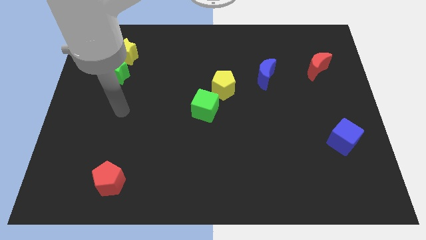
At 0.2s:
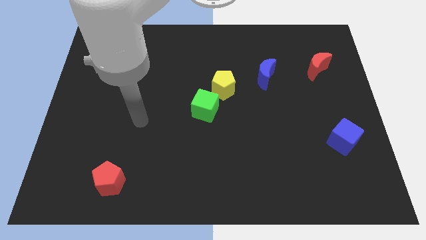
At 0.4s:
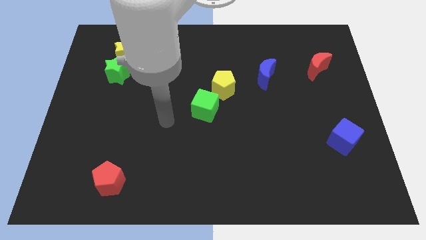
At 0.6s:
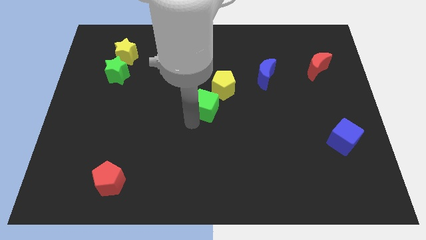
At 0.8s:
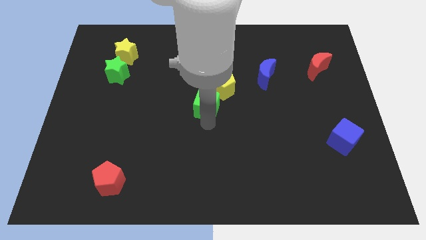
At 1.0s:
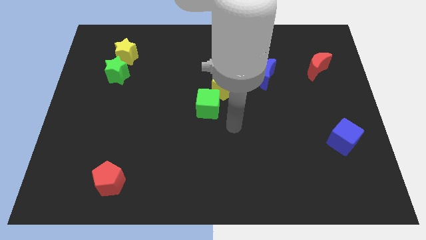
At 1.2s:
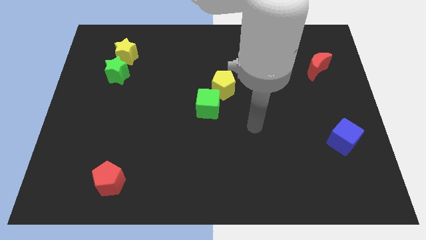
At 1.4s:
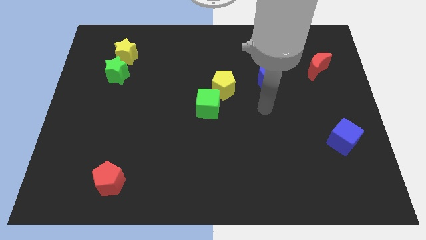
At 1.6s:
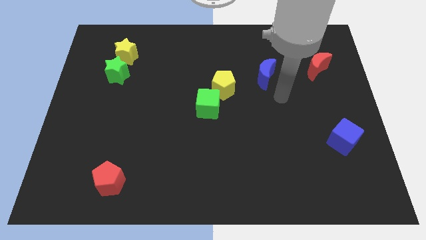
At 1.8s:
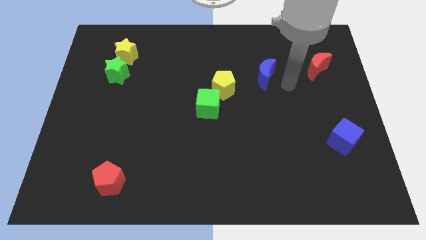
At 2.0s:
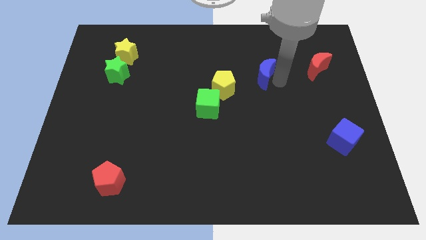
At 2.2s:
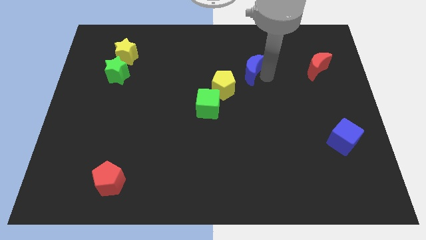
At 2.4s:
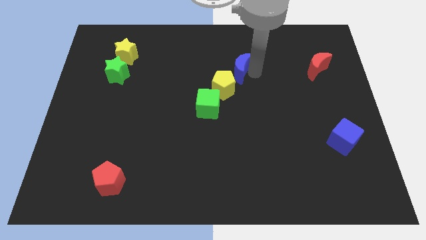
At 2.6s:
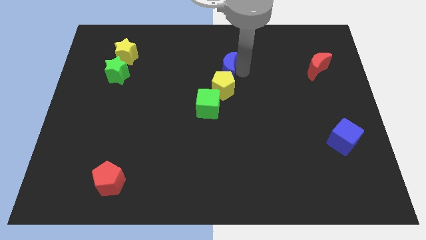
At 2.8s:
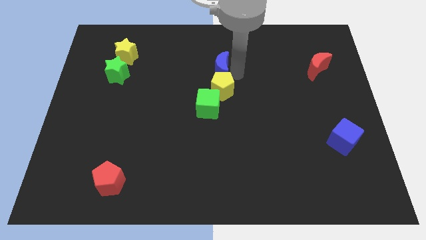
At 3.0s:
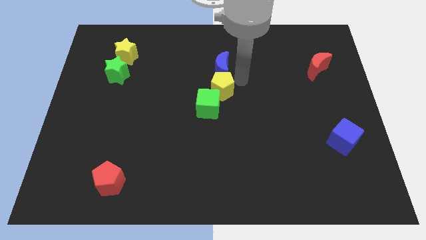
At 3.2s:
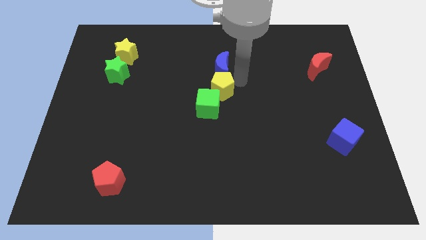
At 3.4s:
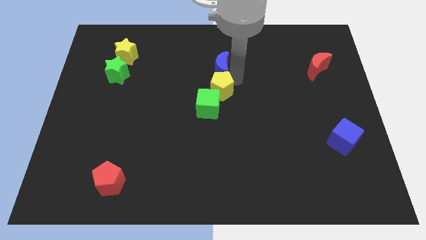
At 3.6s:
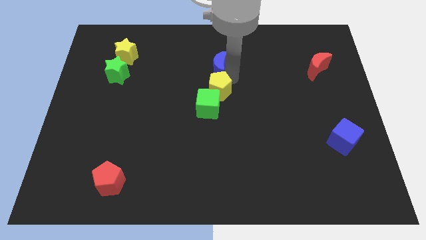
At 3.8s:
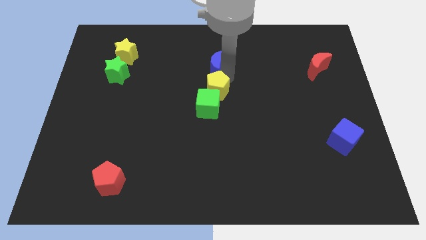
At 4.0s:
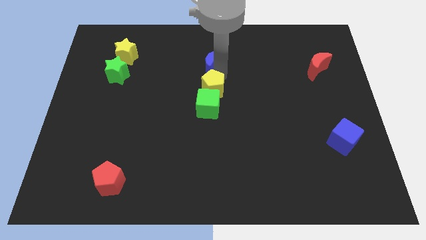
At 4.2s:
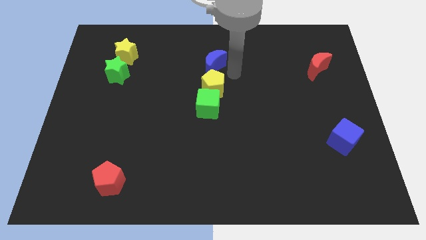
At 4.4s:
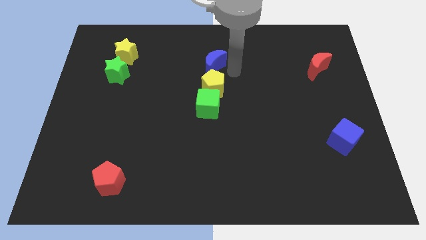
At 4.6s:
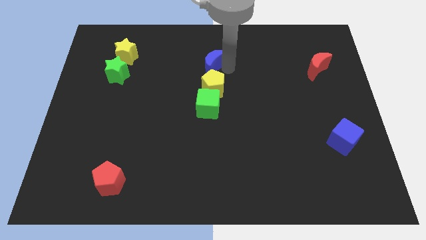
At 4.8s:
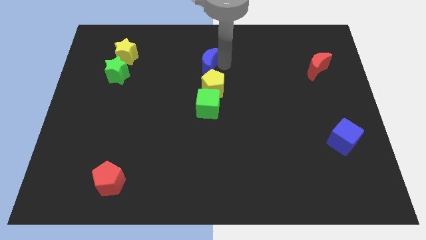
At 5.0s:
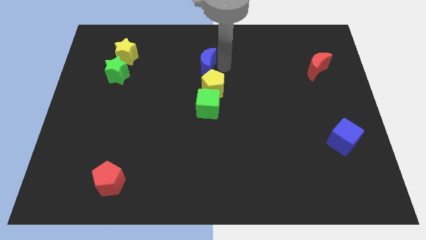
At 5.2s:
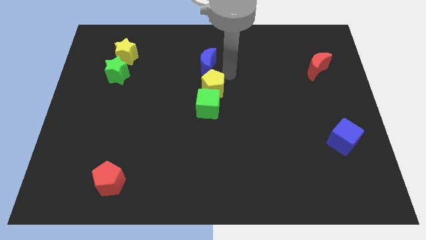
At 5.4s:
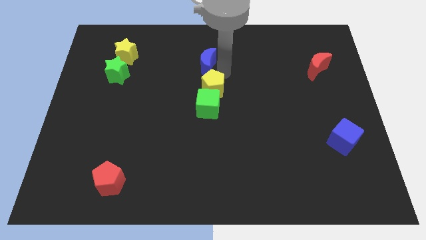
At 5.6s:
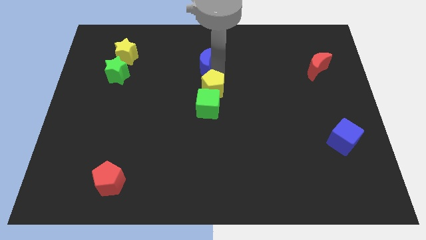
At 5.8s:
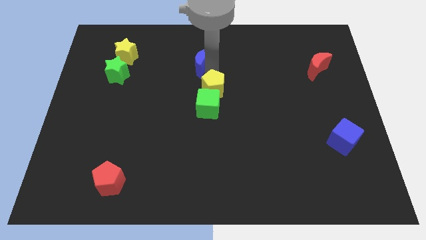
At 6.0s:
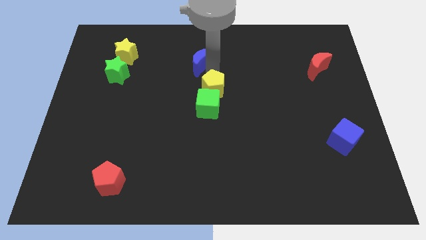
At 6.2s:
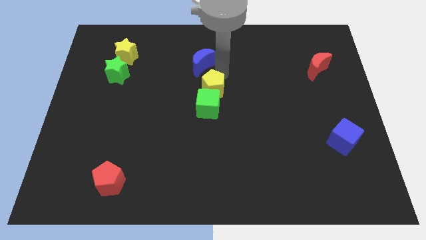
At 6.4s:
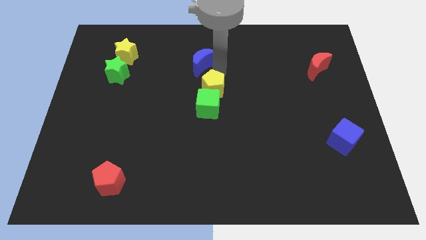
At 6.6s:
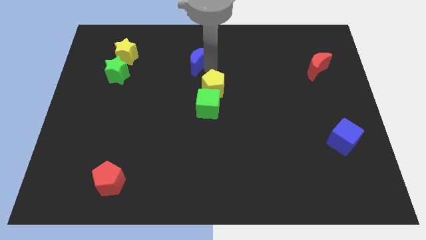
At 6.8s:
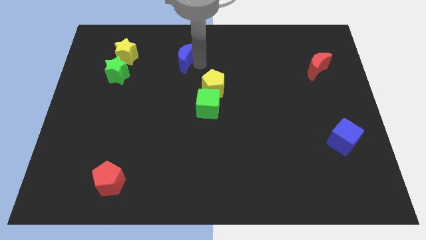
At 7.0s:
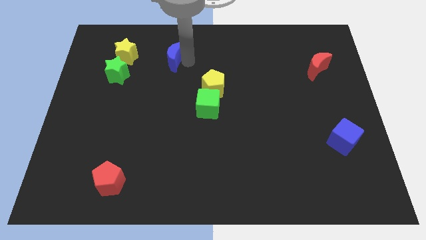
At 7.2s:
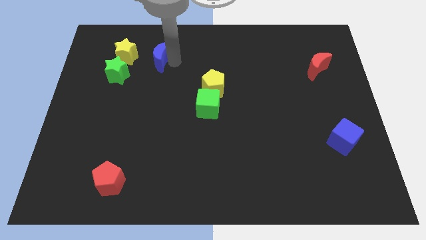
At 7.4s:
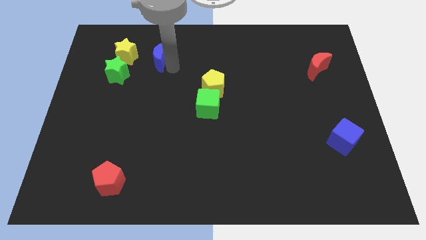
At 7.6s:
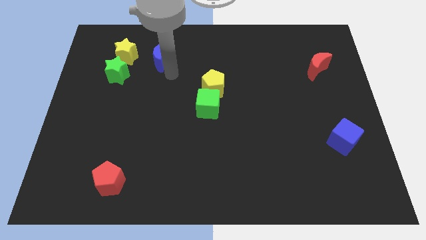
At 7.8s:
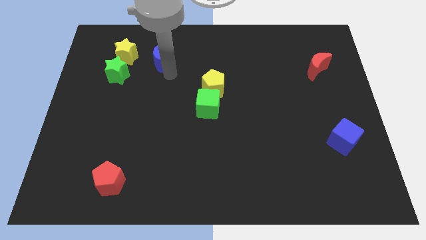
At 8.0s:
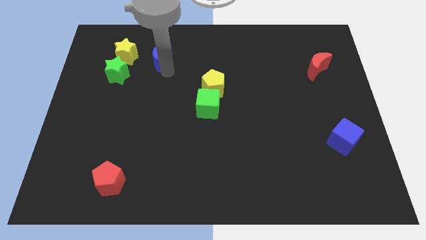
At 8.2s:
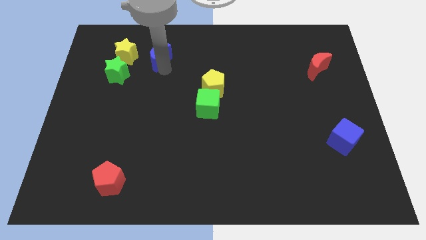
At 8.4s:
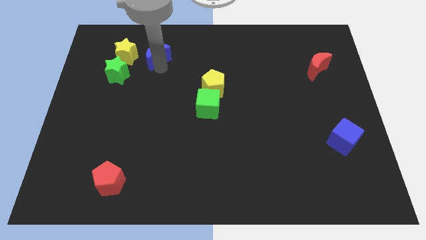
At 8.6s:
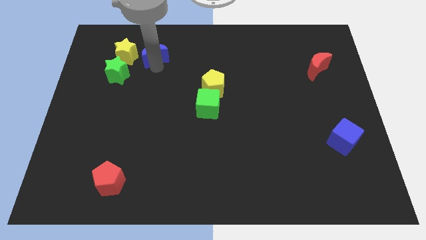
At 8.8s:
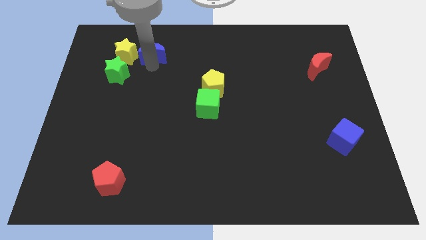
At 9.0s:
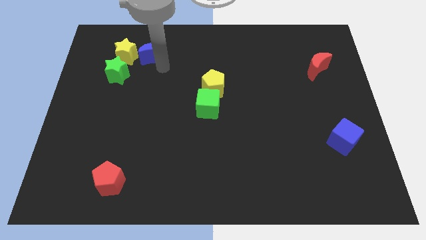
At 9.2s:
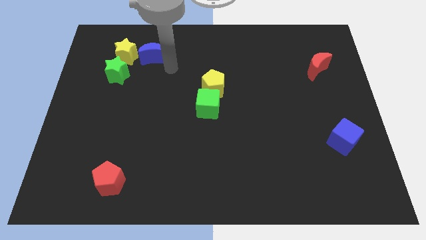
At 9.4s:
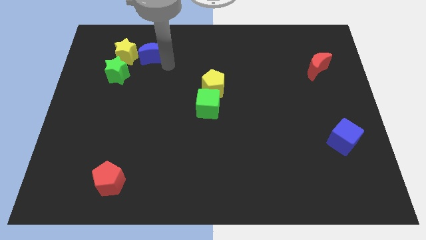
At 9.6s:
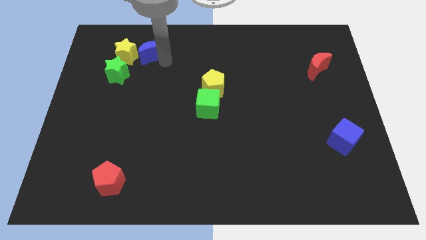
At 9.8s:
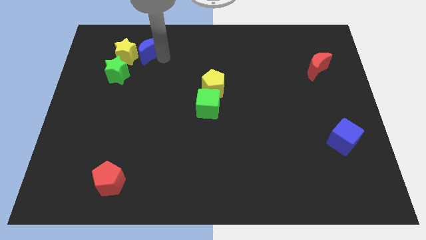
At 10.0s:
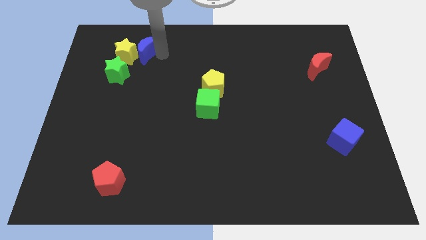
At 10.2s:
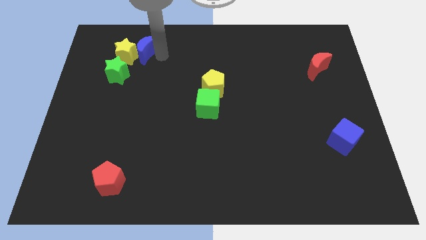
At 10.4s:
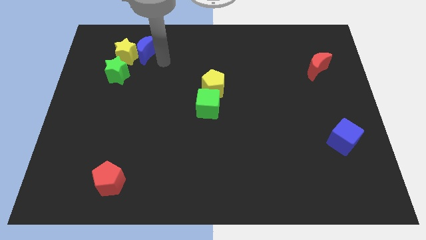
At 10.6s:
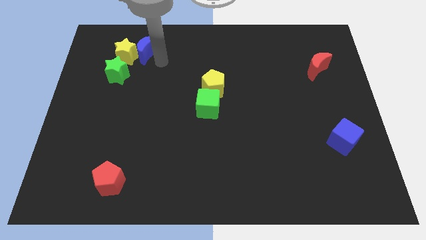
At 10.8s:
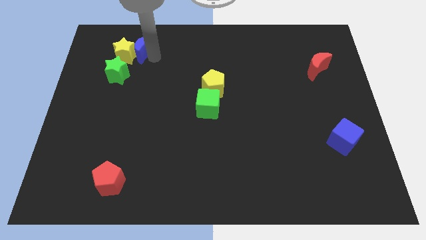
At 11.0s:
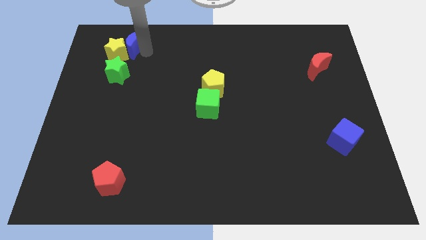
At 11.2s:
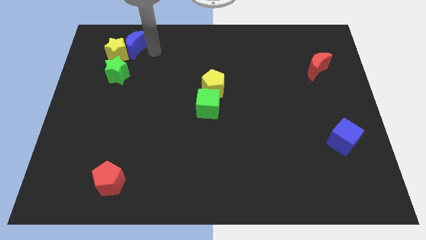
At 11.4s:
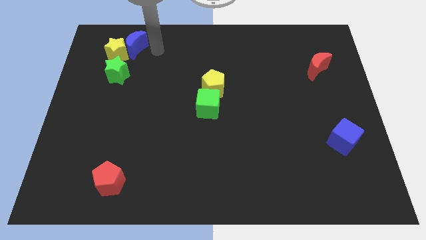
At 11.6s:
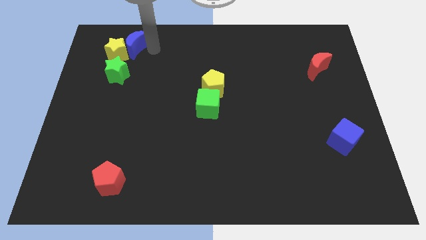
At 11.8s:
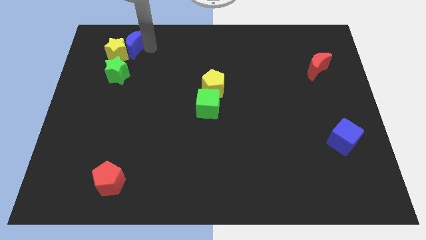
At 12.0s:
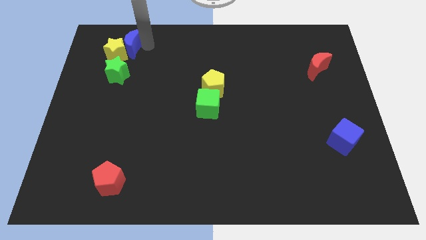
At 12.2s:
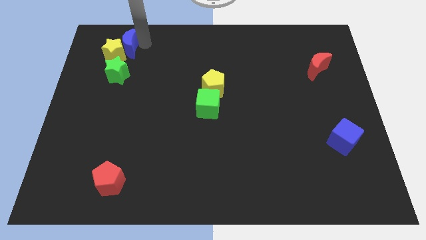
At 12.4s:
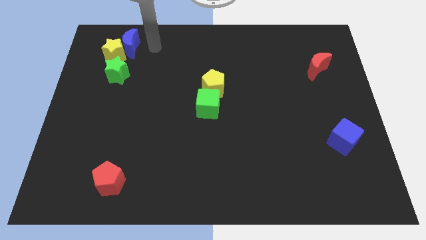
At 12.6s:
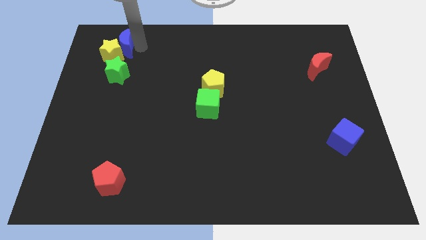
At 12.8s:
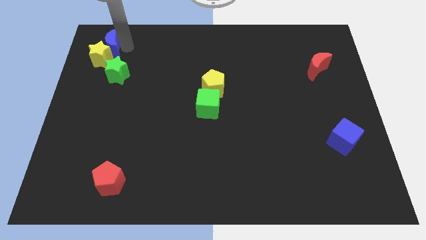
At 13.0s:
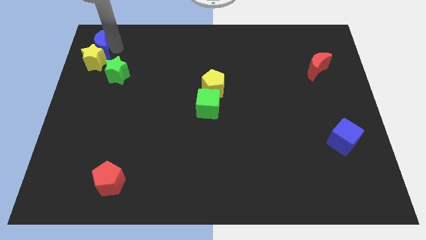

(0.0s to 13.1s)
slide the blue moon to the top left corner

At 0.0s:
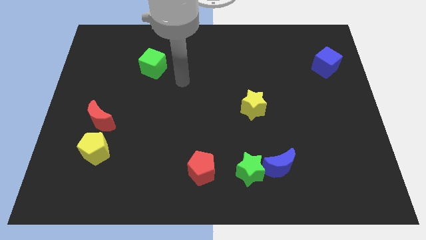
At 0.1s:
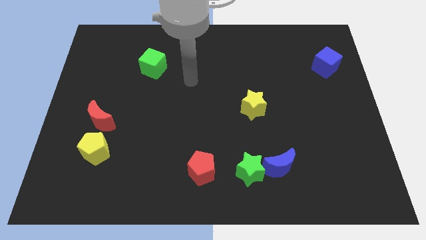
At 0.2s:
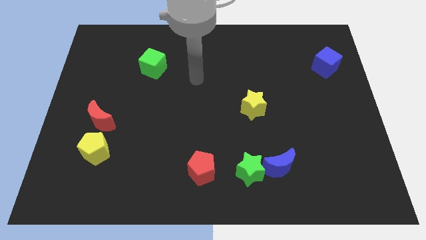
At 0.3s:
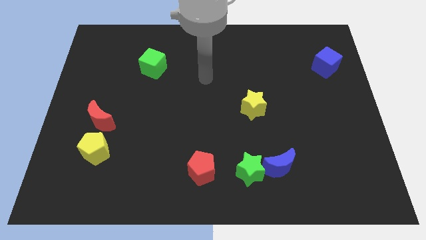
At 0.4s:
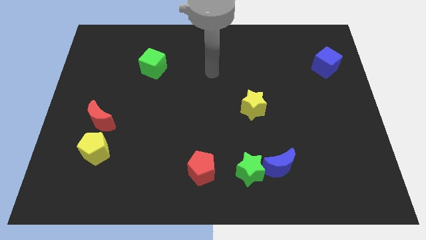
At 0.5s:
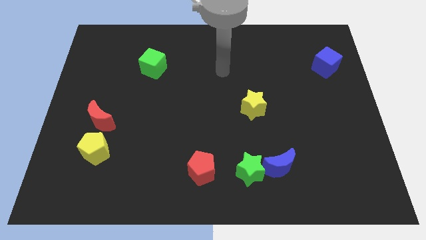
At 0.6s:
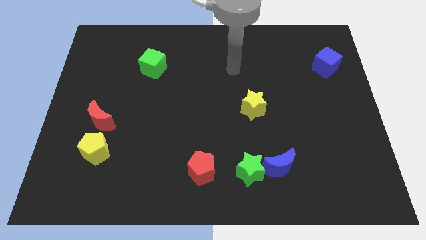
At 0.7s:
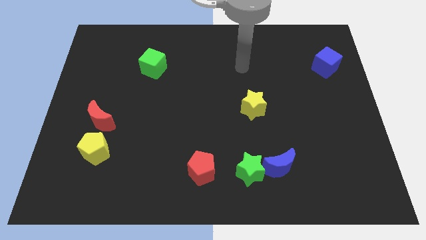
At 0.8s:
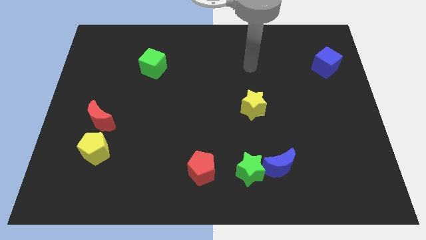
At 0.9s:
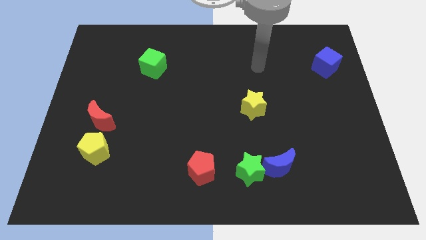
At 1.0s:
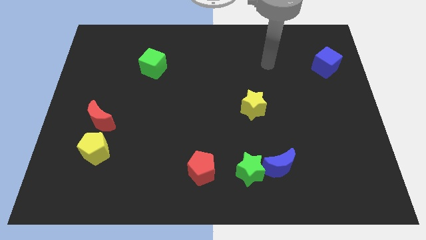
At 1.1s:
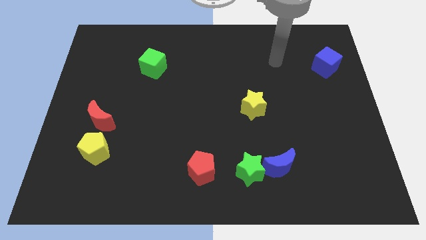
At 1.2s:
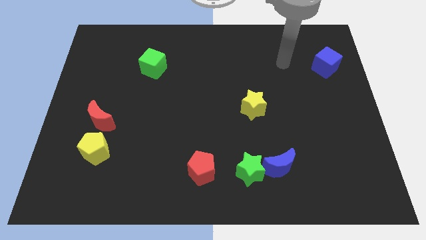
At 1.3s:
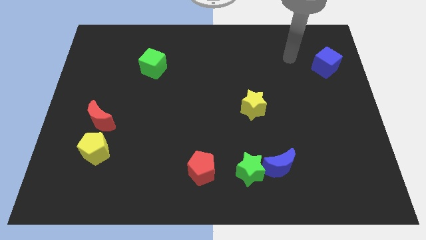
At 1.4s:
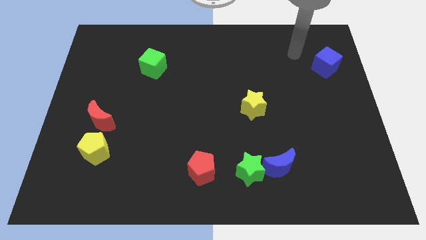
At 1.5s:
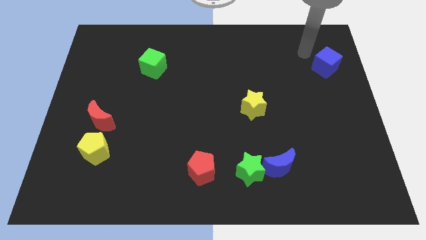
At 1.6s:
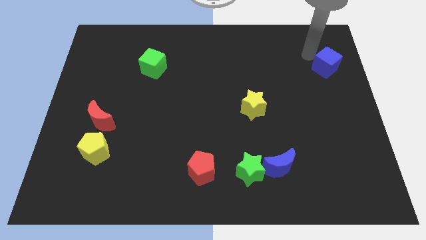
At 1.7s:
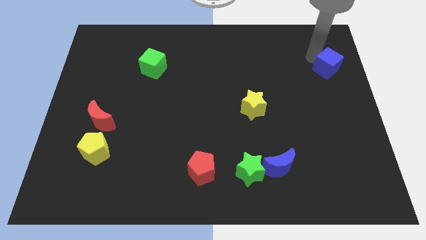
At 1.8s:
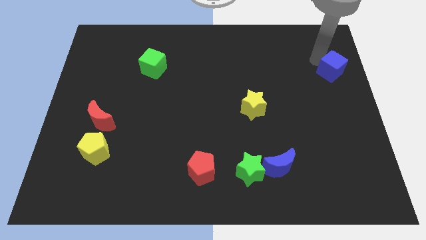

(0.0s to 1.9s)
move the blue cube to the center right
